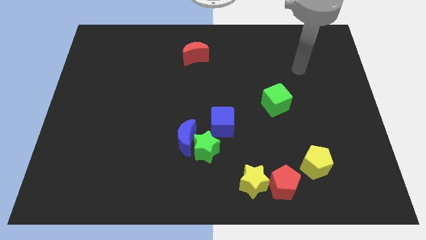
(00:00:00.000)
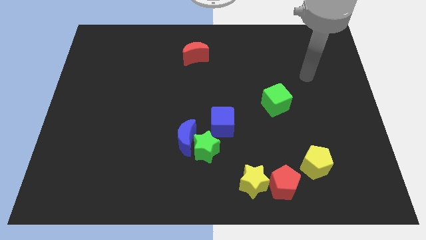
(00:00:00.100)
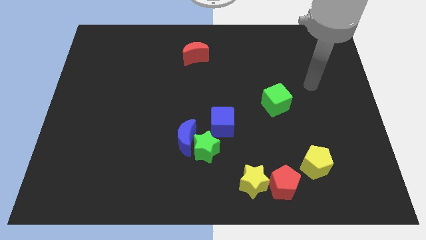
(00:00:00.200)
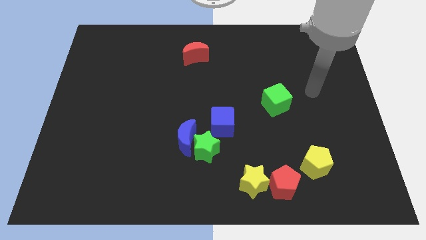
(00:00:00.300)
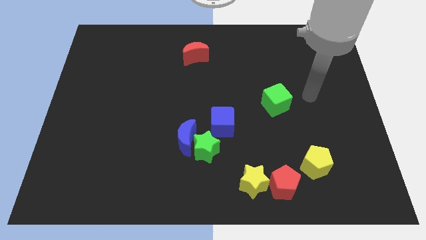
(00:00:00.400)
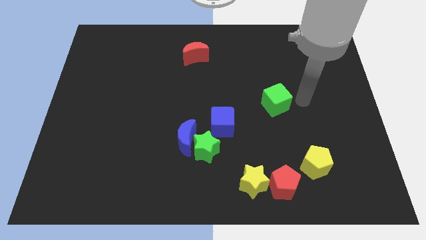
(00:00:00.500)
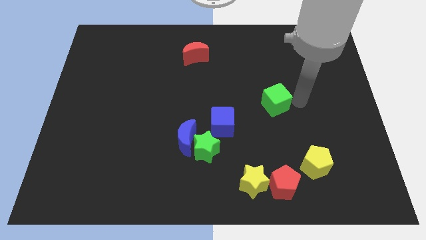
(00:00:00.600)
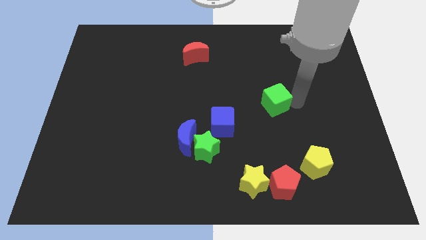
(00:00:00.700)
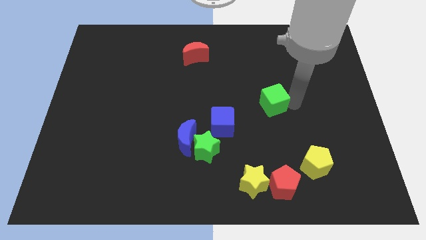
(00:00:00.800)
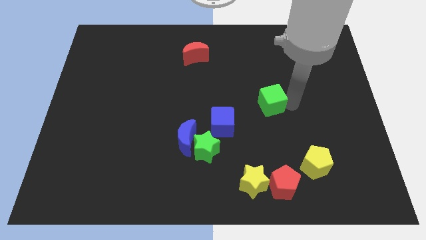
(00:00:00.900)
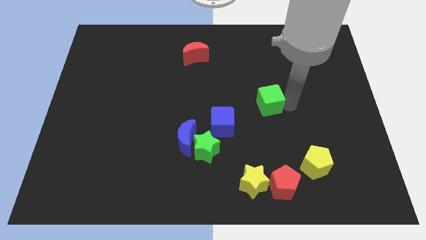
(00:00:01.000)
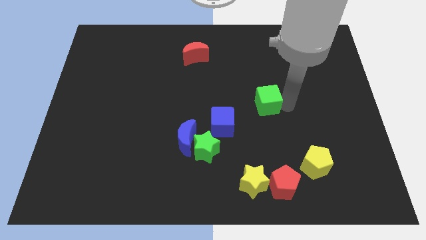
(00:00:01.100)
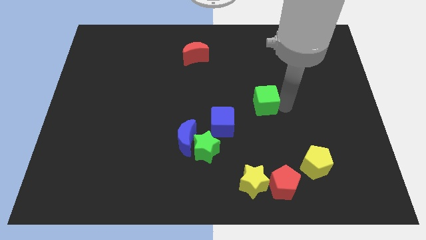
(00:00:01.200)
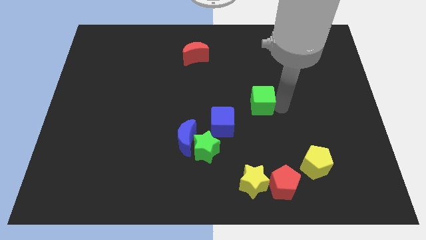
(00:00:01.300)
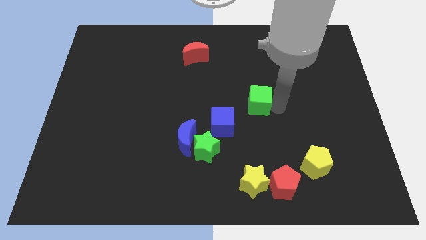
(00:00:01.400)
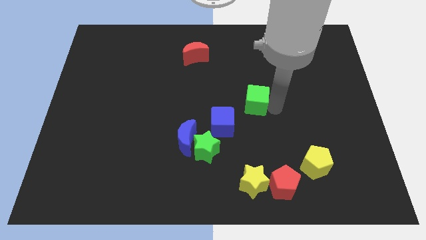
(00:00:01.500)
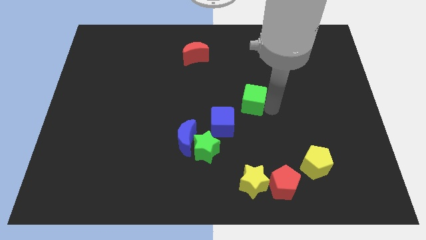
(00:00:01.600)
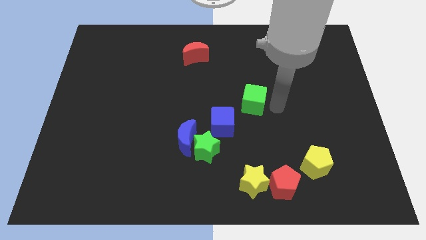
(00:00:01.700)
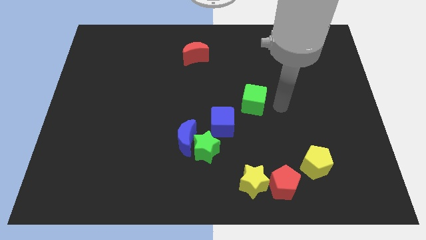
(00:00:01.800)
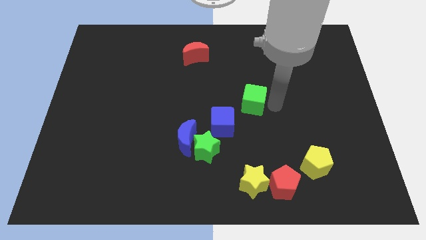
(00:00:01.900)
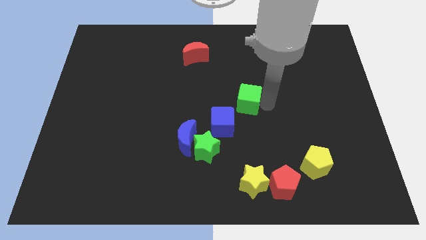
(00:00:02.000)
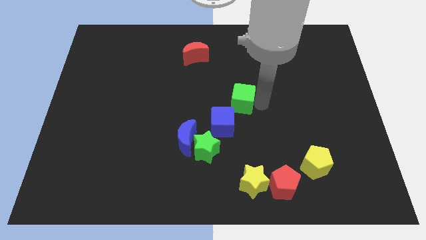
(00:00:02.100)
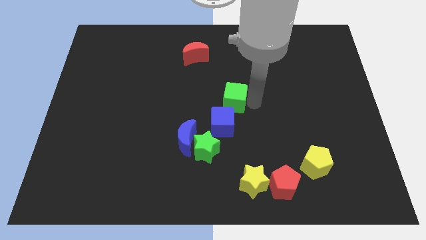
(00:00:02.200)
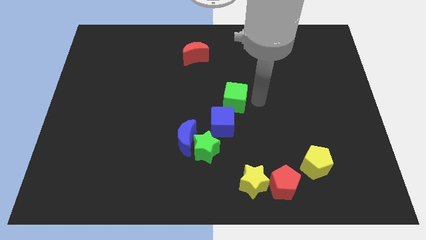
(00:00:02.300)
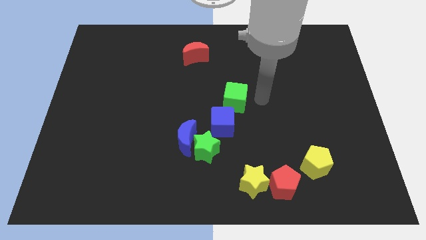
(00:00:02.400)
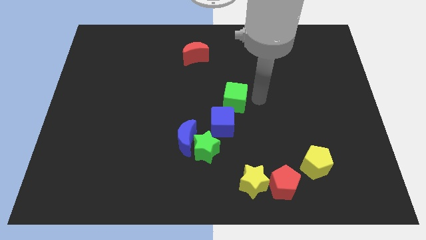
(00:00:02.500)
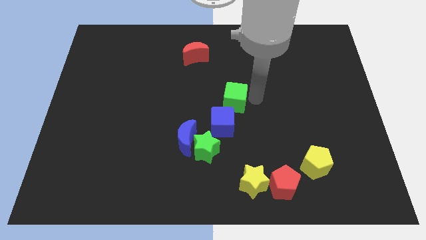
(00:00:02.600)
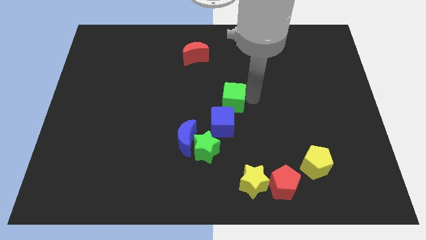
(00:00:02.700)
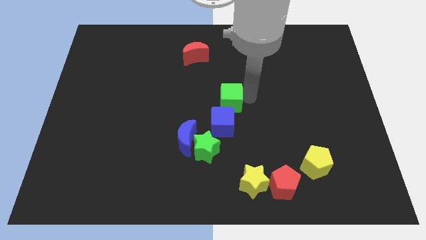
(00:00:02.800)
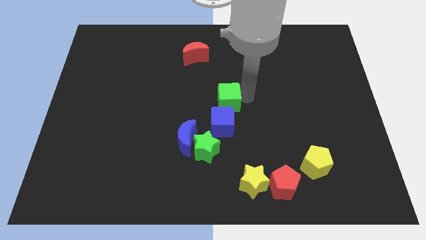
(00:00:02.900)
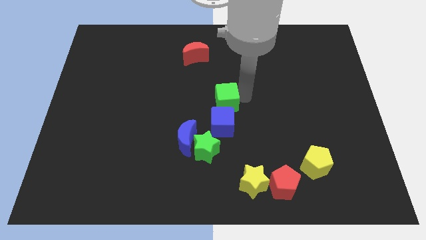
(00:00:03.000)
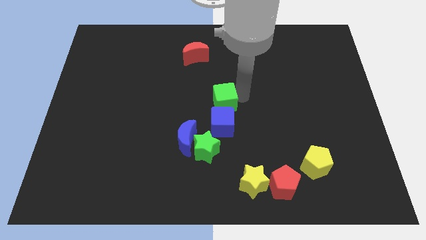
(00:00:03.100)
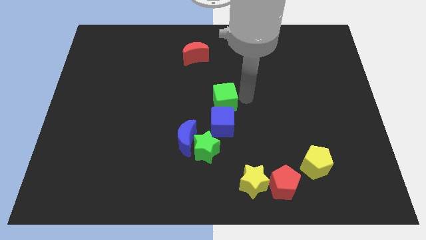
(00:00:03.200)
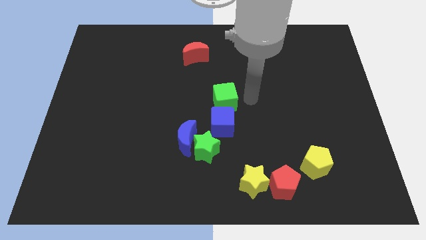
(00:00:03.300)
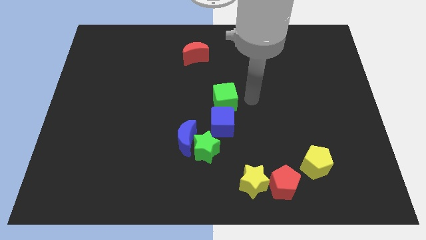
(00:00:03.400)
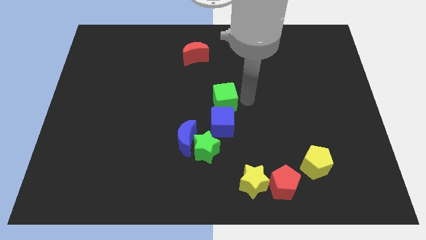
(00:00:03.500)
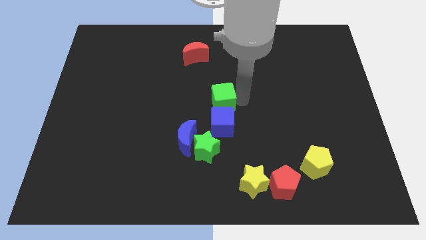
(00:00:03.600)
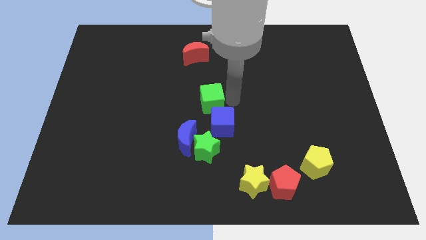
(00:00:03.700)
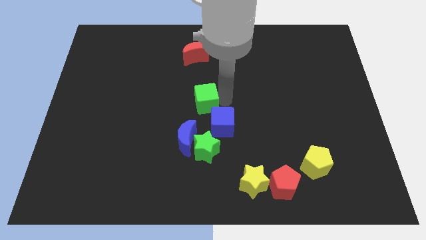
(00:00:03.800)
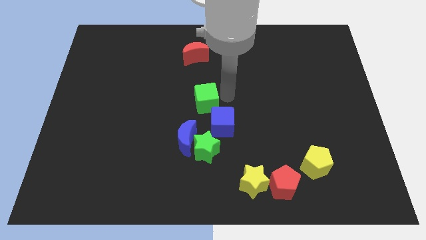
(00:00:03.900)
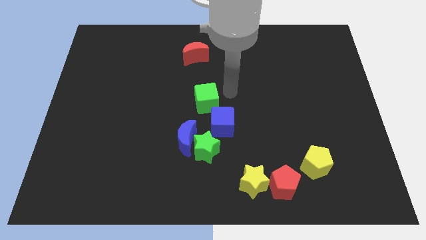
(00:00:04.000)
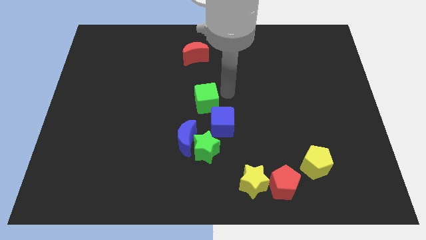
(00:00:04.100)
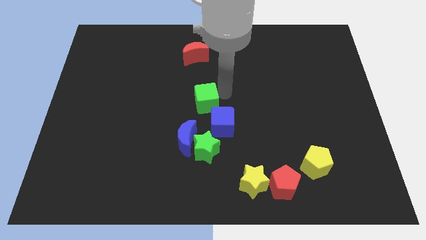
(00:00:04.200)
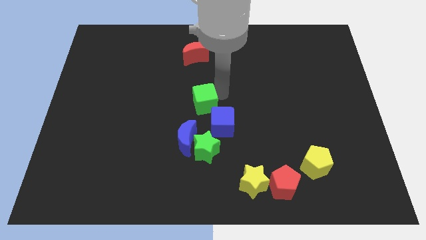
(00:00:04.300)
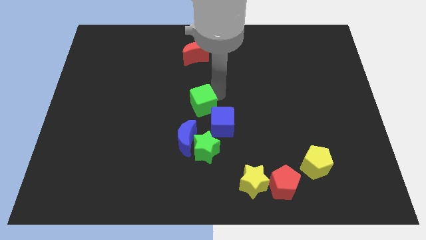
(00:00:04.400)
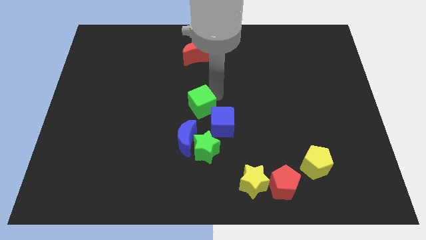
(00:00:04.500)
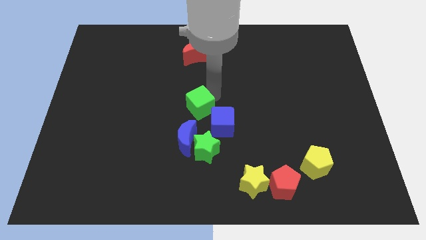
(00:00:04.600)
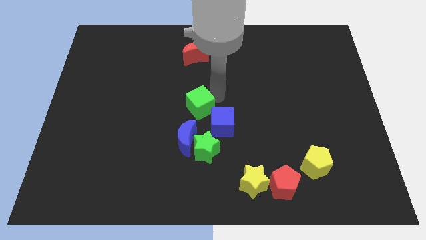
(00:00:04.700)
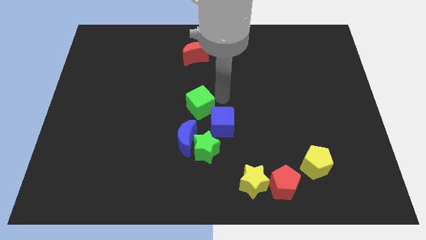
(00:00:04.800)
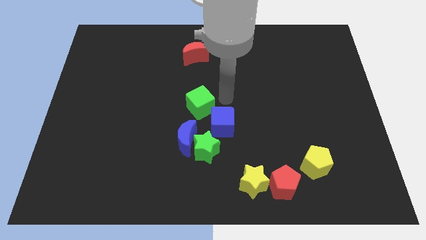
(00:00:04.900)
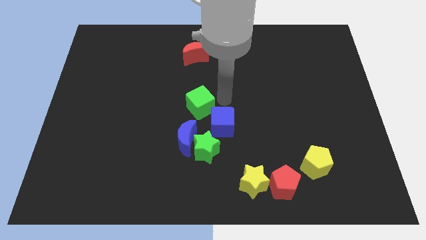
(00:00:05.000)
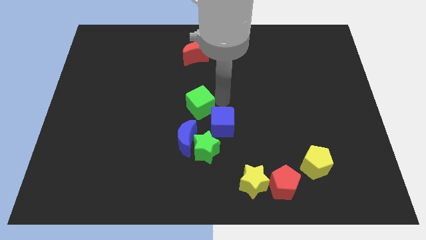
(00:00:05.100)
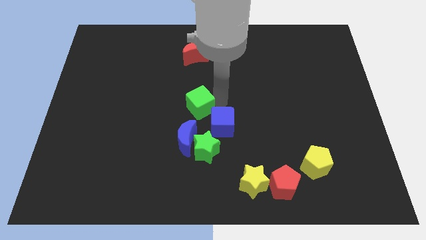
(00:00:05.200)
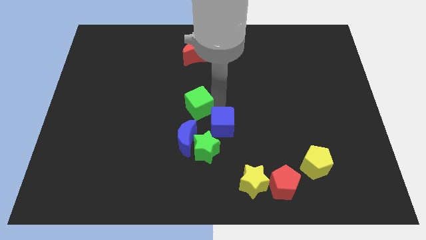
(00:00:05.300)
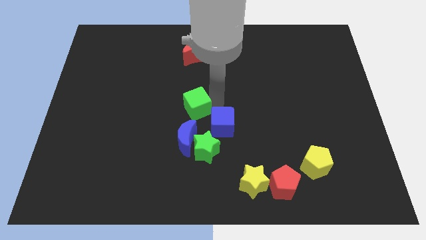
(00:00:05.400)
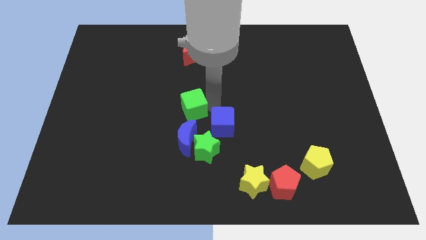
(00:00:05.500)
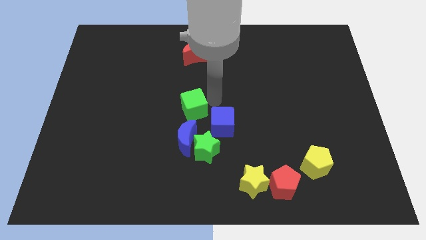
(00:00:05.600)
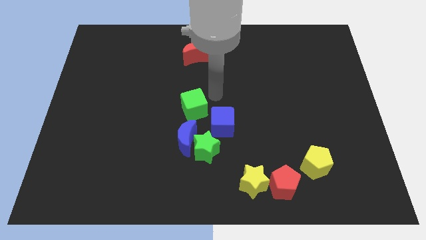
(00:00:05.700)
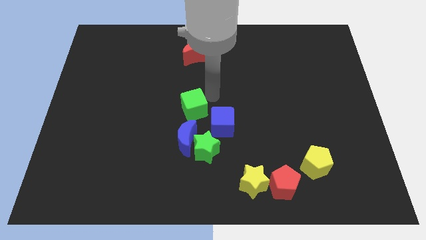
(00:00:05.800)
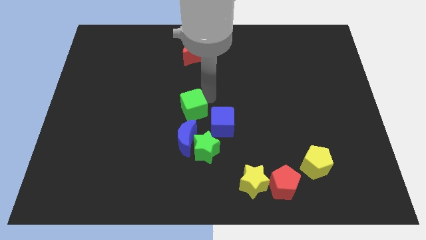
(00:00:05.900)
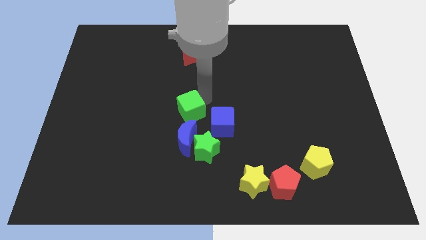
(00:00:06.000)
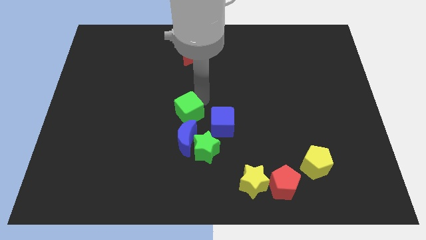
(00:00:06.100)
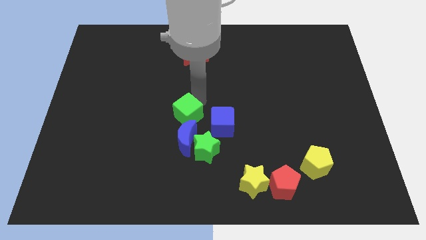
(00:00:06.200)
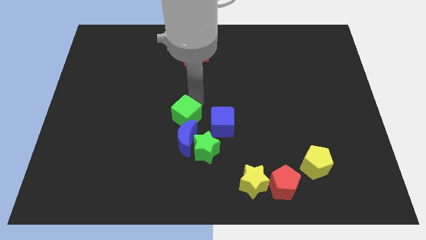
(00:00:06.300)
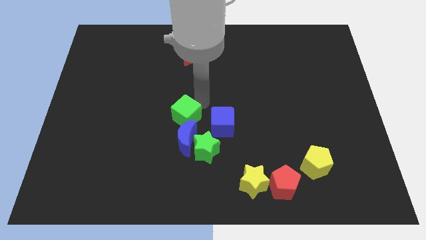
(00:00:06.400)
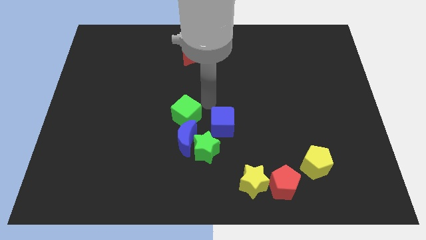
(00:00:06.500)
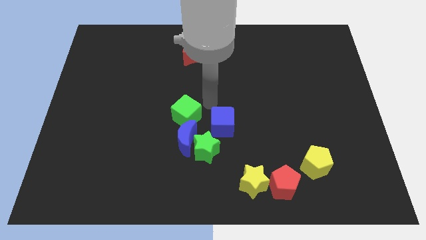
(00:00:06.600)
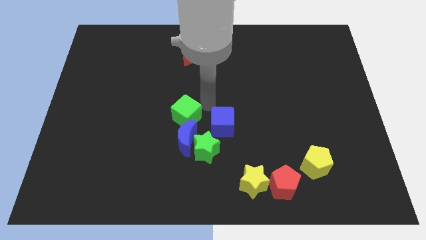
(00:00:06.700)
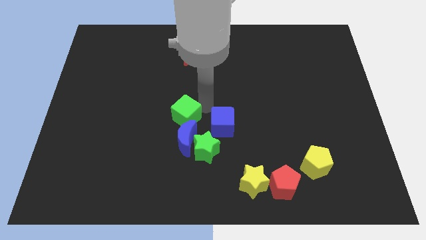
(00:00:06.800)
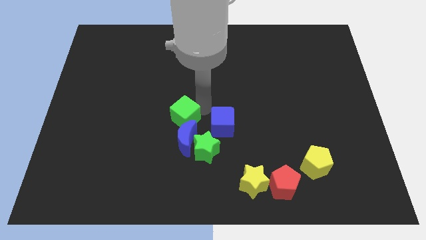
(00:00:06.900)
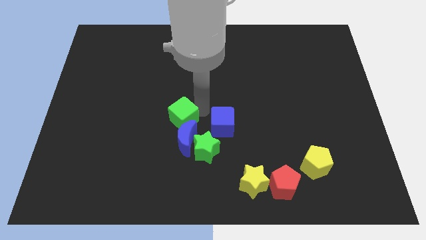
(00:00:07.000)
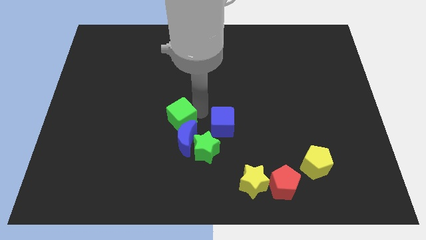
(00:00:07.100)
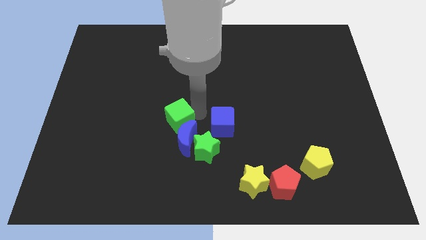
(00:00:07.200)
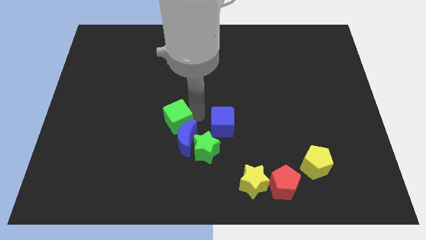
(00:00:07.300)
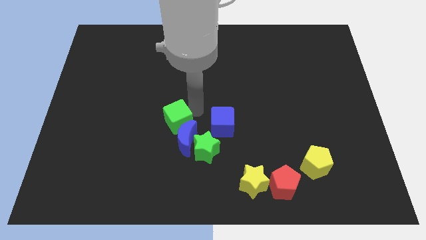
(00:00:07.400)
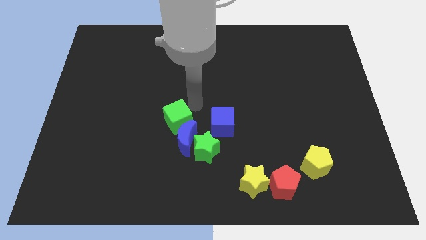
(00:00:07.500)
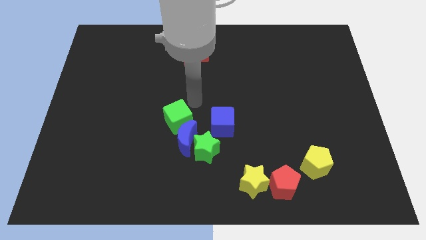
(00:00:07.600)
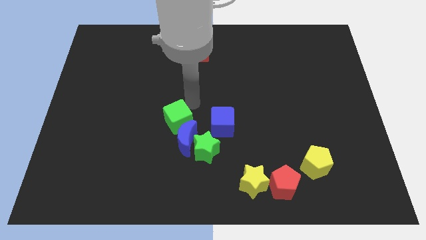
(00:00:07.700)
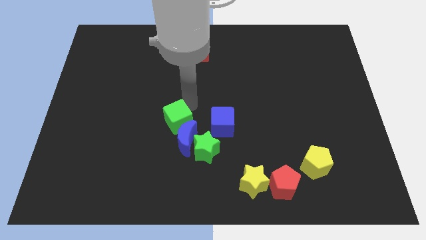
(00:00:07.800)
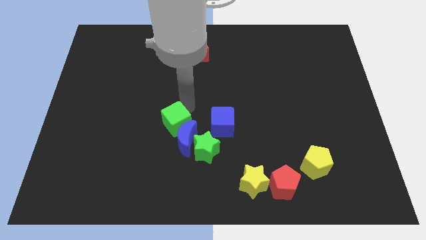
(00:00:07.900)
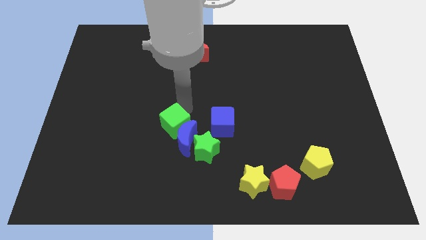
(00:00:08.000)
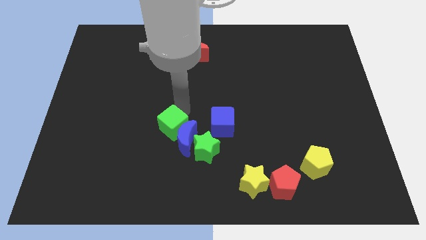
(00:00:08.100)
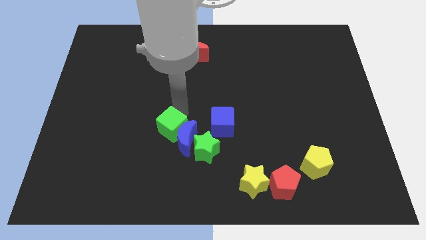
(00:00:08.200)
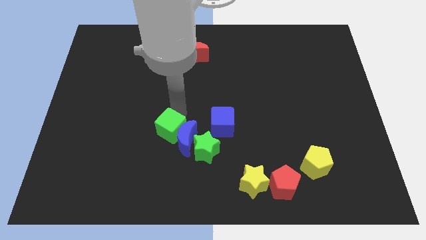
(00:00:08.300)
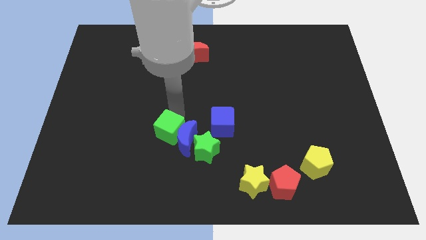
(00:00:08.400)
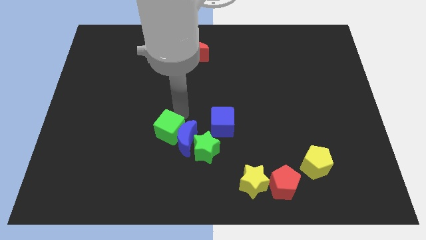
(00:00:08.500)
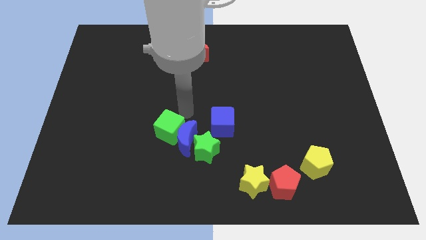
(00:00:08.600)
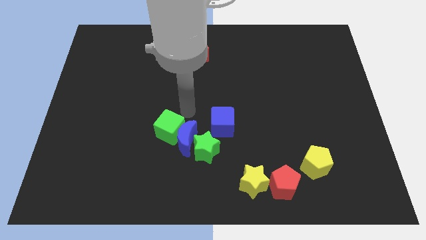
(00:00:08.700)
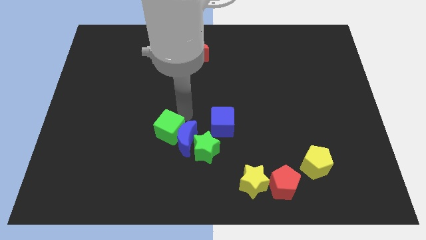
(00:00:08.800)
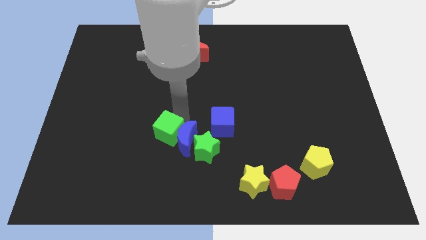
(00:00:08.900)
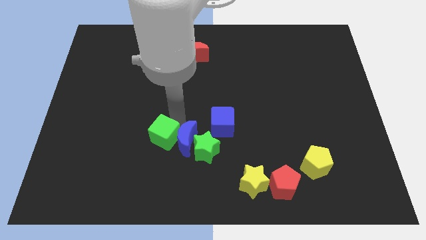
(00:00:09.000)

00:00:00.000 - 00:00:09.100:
slide the green cube diagonally down and to the left of the blue moon
